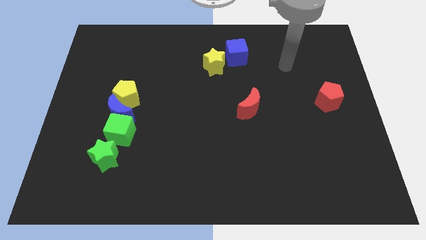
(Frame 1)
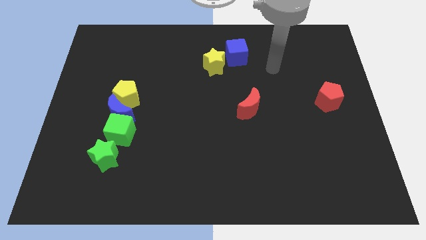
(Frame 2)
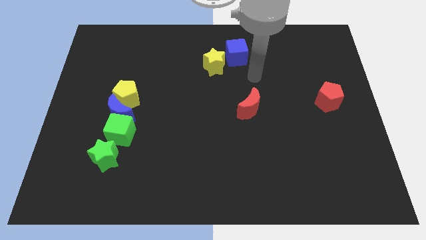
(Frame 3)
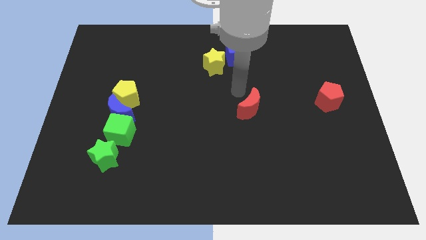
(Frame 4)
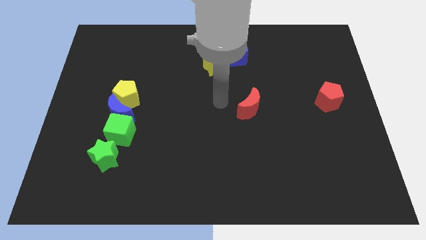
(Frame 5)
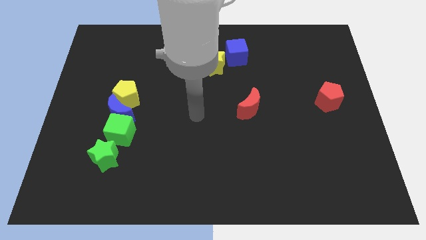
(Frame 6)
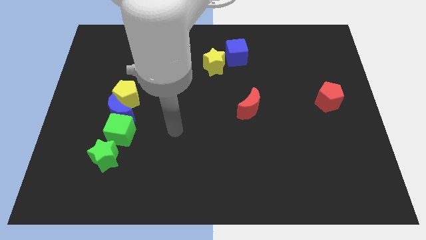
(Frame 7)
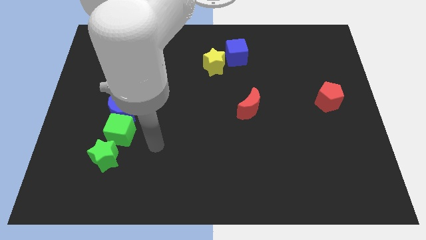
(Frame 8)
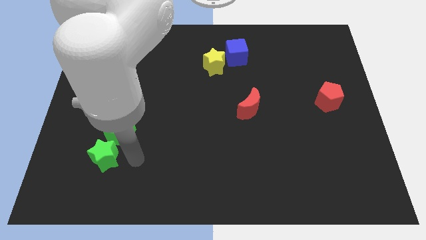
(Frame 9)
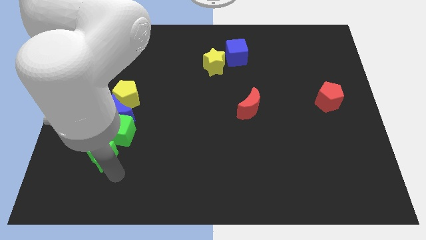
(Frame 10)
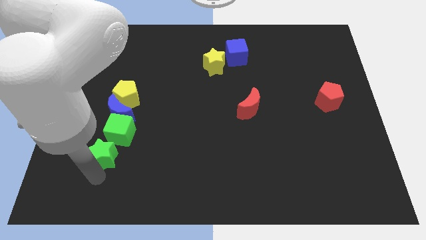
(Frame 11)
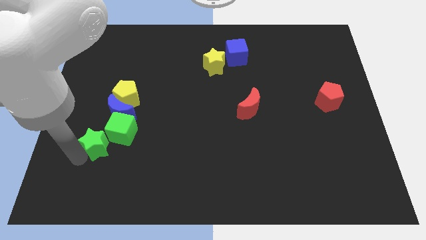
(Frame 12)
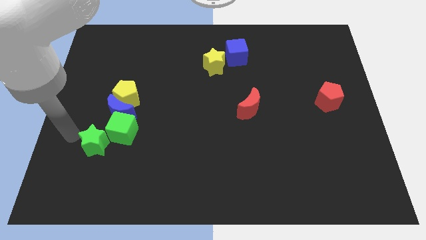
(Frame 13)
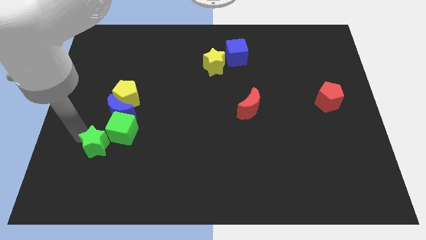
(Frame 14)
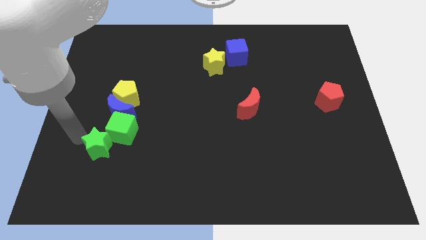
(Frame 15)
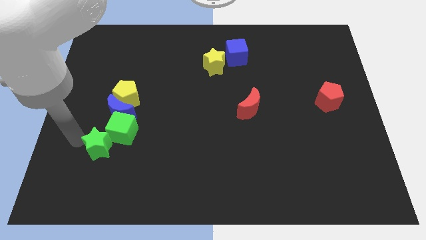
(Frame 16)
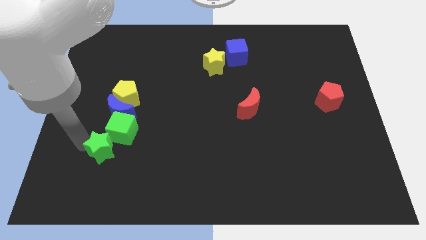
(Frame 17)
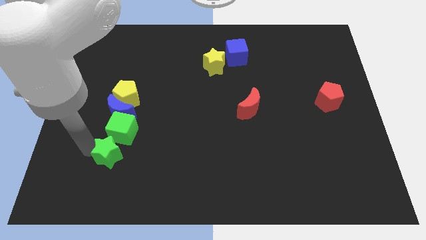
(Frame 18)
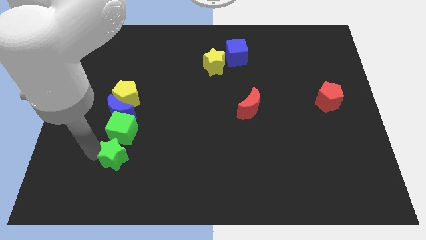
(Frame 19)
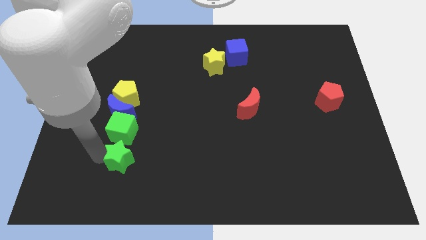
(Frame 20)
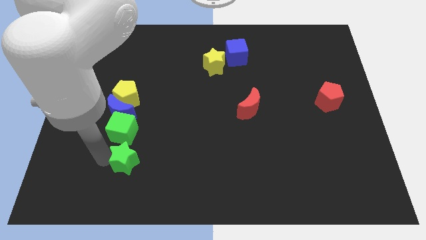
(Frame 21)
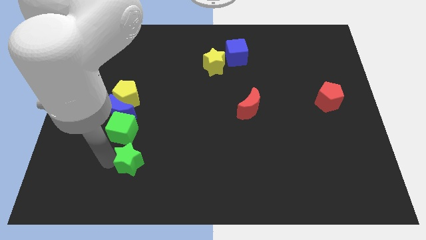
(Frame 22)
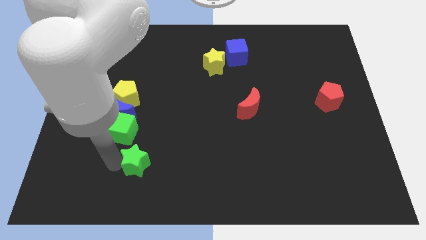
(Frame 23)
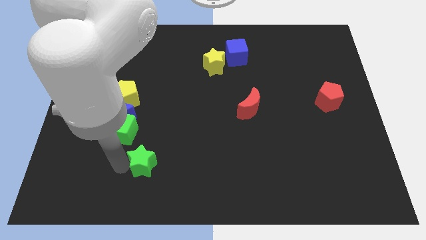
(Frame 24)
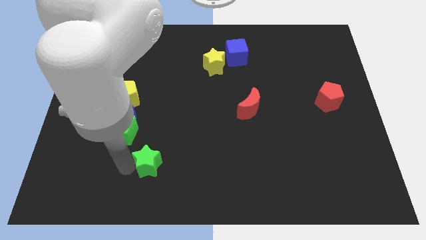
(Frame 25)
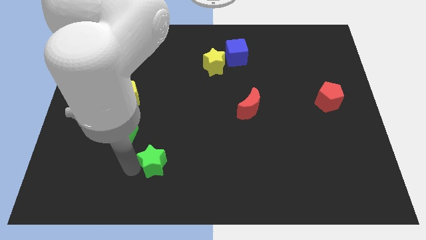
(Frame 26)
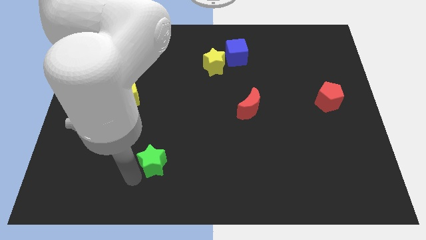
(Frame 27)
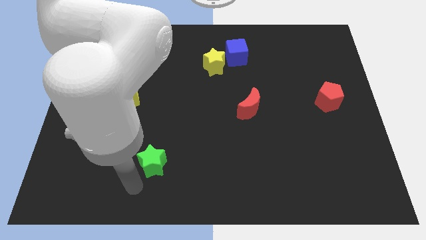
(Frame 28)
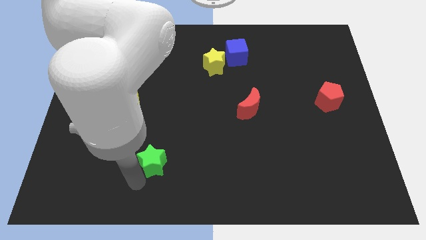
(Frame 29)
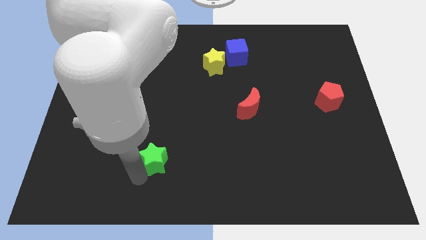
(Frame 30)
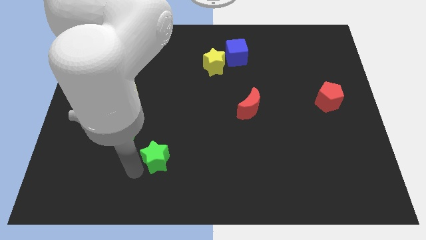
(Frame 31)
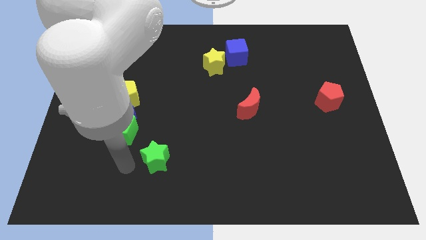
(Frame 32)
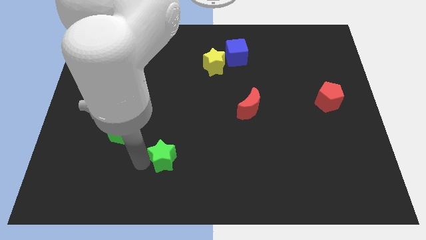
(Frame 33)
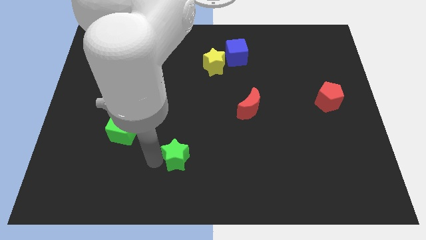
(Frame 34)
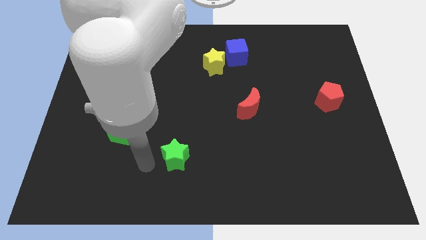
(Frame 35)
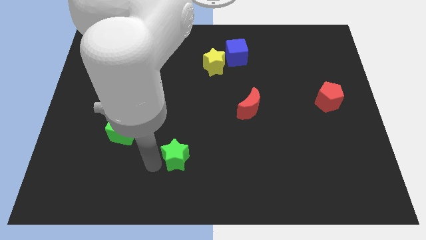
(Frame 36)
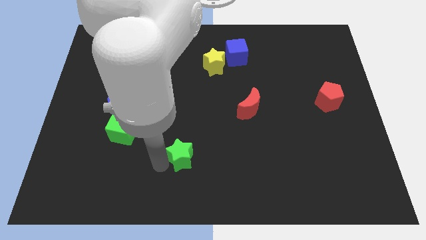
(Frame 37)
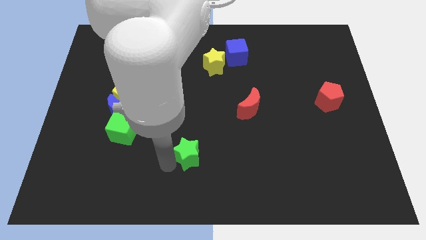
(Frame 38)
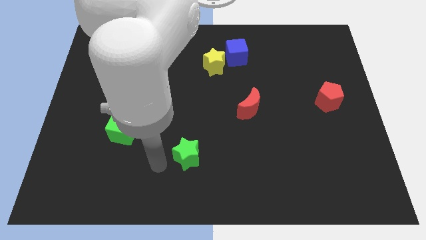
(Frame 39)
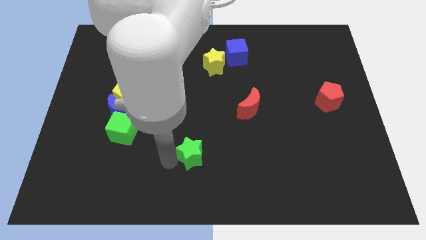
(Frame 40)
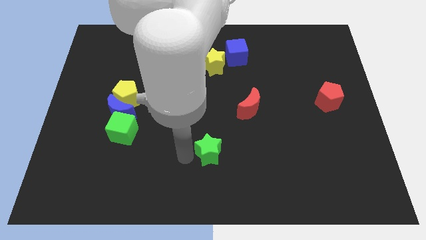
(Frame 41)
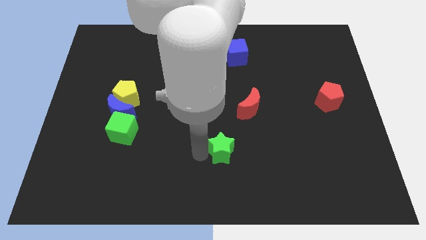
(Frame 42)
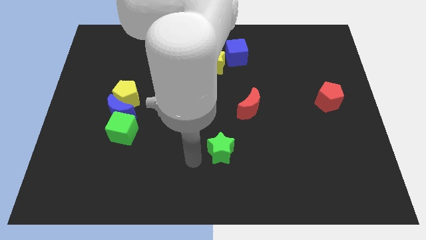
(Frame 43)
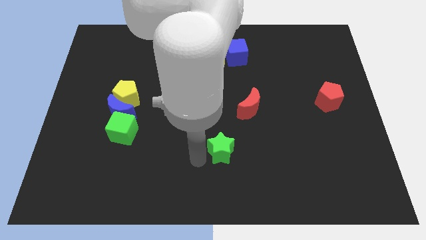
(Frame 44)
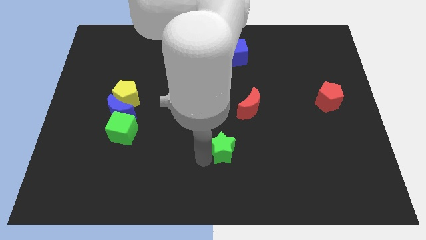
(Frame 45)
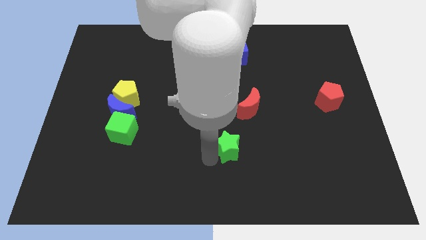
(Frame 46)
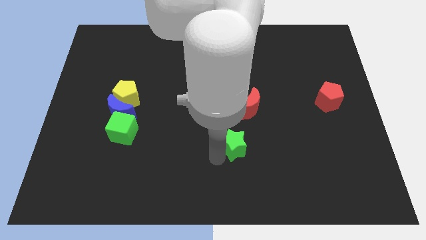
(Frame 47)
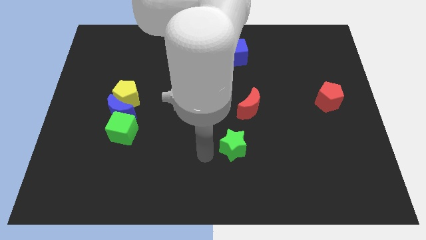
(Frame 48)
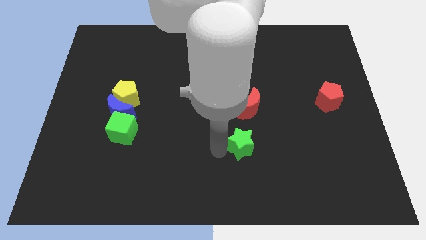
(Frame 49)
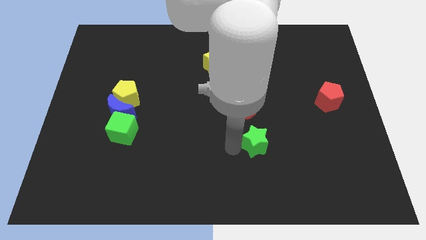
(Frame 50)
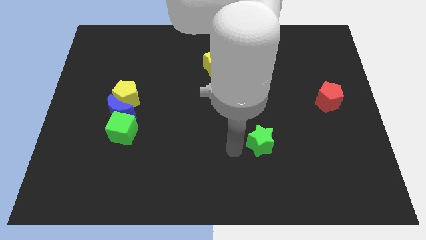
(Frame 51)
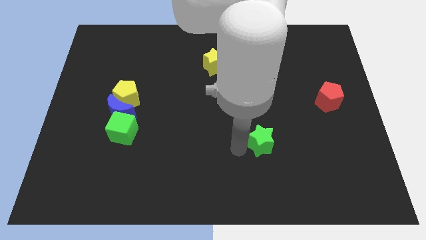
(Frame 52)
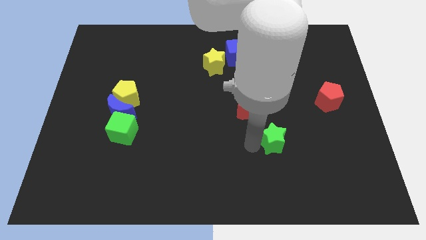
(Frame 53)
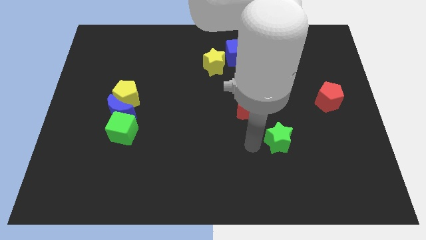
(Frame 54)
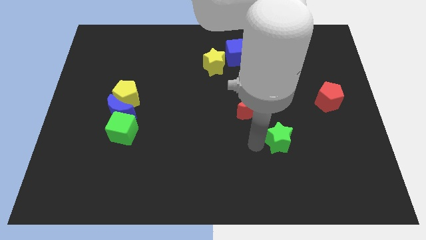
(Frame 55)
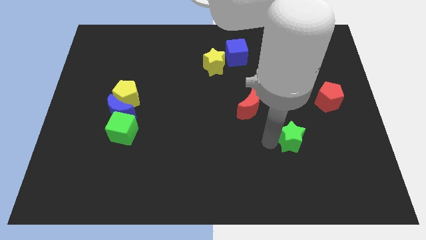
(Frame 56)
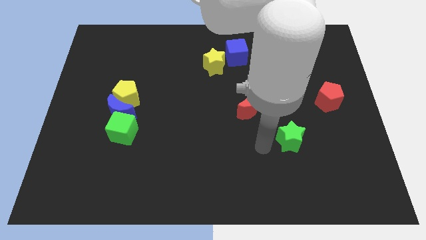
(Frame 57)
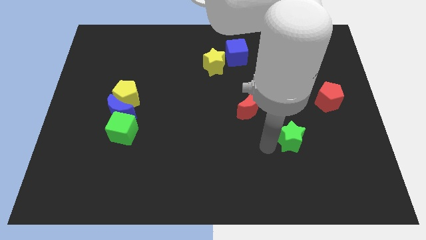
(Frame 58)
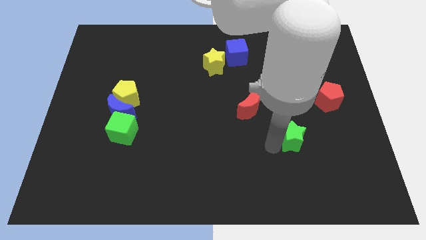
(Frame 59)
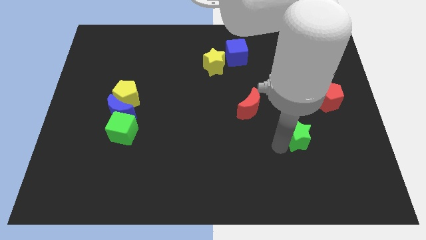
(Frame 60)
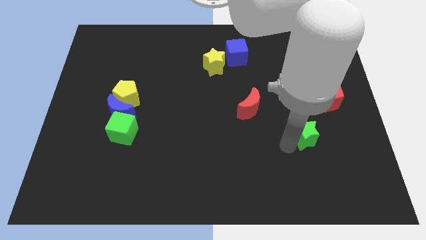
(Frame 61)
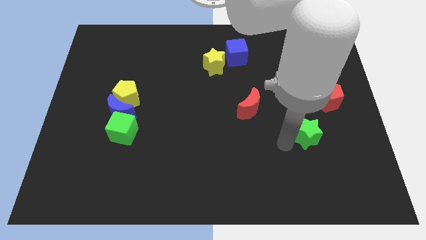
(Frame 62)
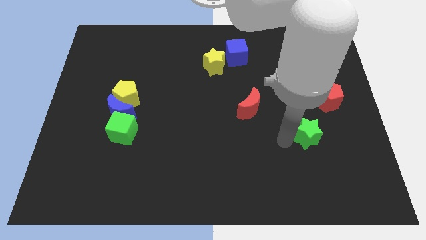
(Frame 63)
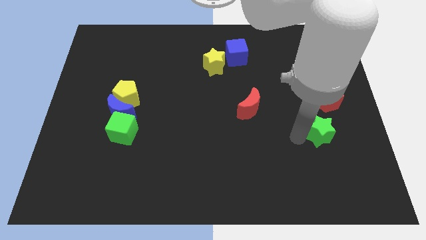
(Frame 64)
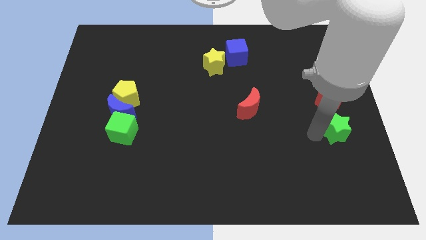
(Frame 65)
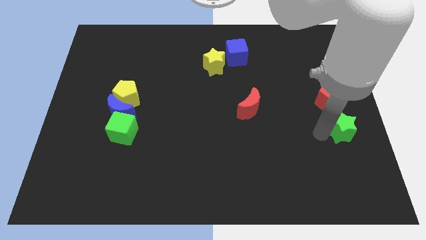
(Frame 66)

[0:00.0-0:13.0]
put the green star to the center right
